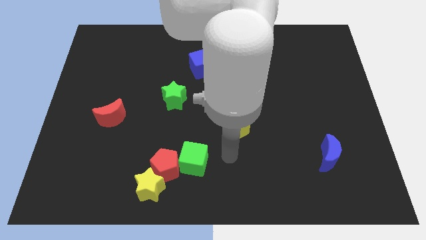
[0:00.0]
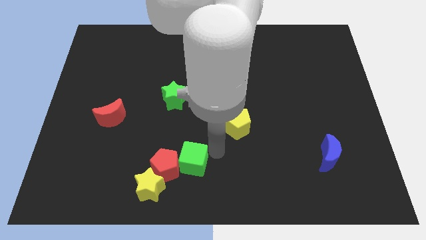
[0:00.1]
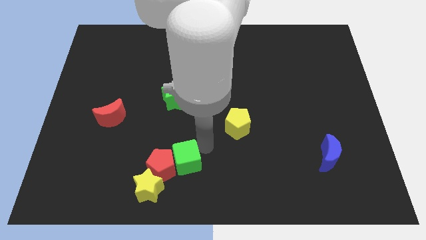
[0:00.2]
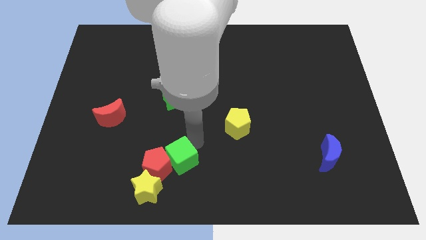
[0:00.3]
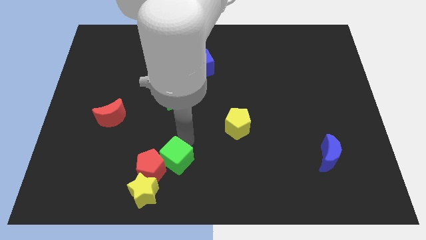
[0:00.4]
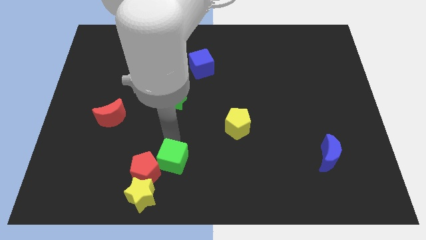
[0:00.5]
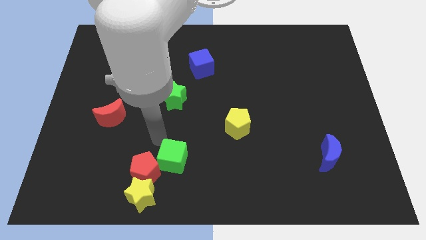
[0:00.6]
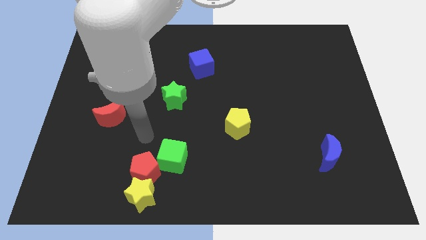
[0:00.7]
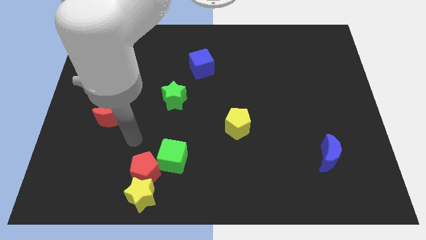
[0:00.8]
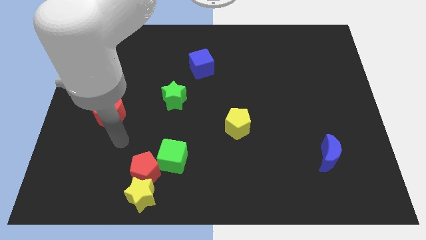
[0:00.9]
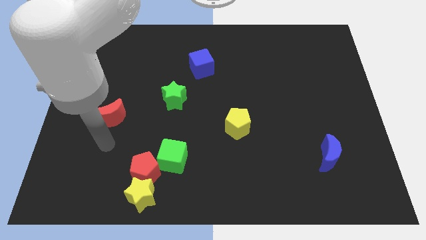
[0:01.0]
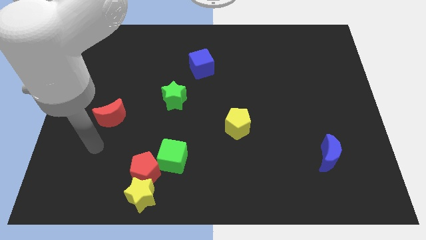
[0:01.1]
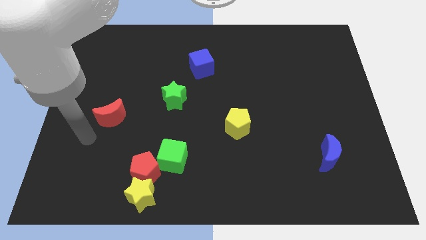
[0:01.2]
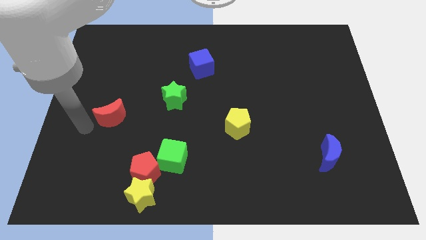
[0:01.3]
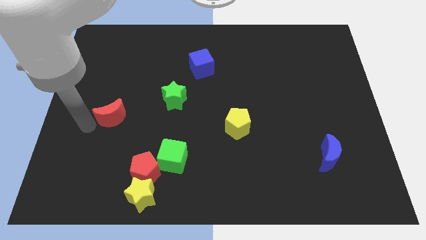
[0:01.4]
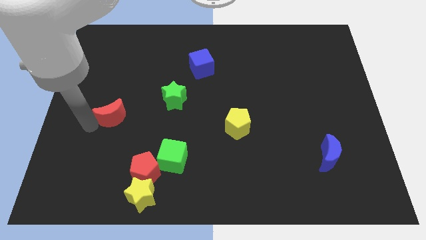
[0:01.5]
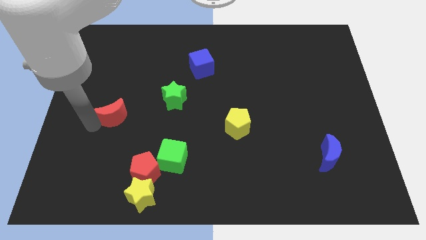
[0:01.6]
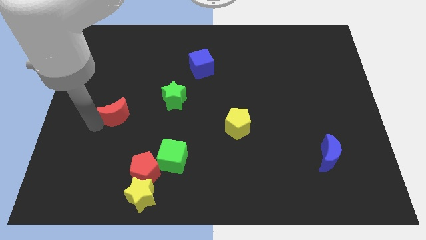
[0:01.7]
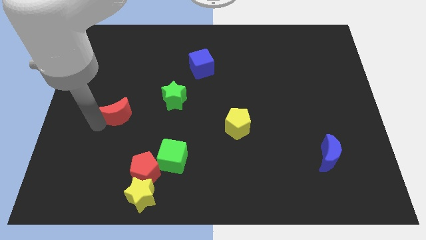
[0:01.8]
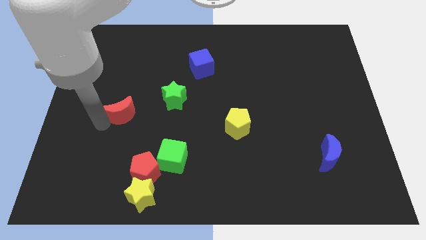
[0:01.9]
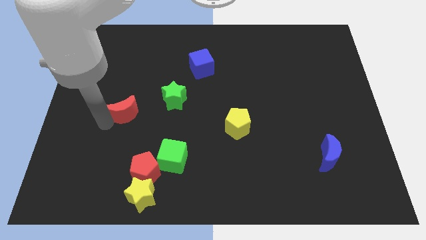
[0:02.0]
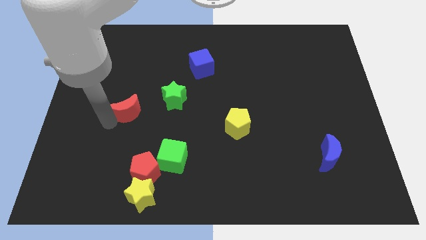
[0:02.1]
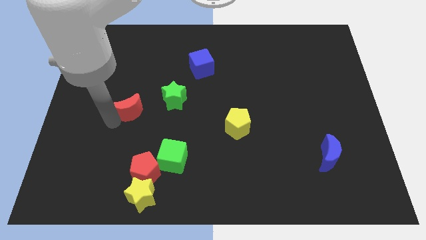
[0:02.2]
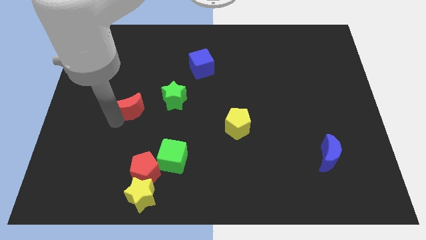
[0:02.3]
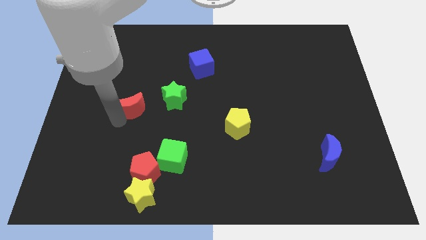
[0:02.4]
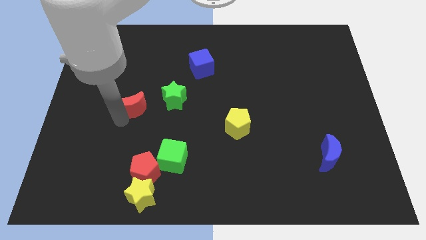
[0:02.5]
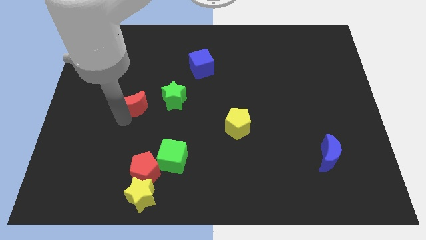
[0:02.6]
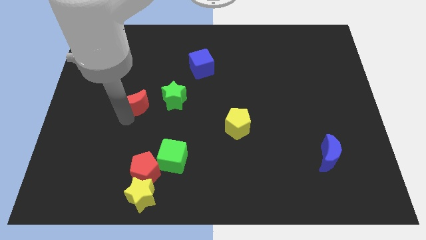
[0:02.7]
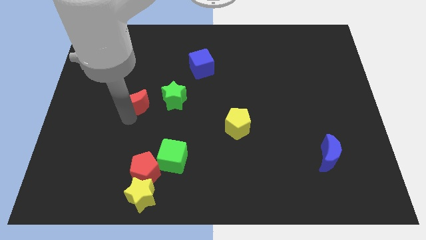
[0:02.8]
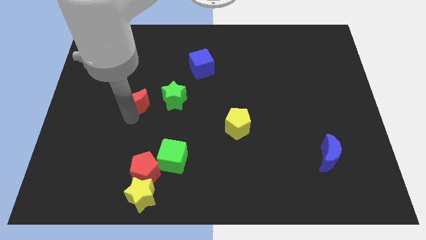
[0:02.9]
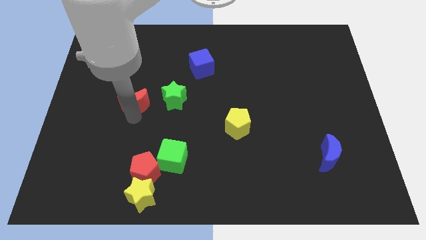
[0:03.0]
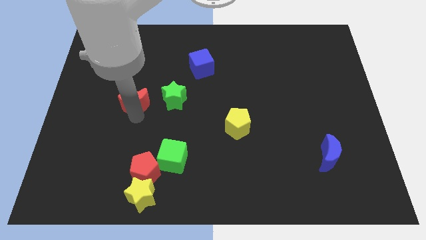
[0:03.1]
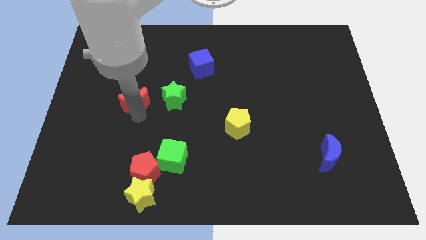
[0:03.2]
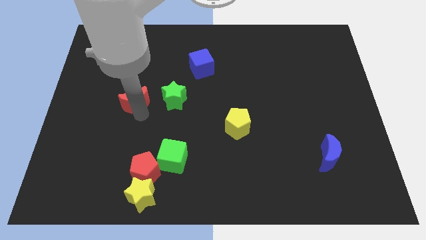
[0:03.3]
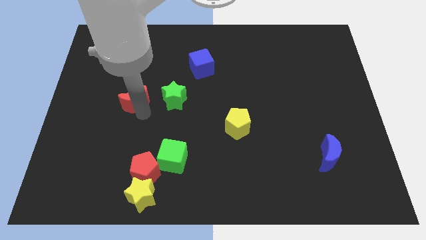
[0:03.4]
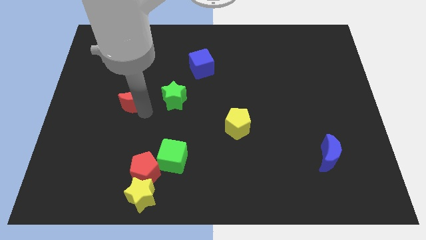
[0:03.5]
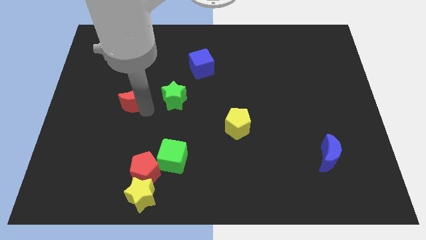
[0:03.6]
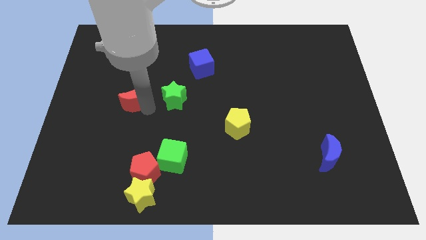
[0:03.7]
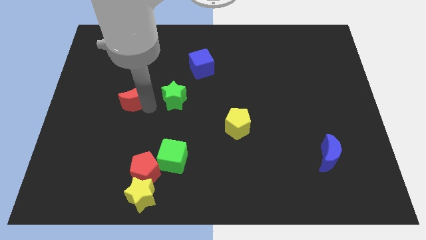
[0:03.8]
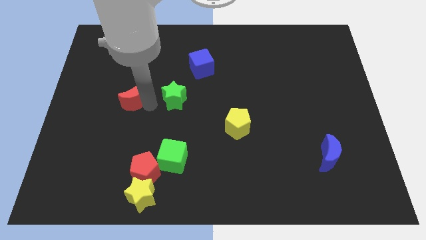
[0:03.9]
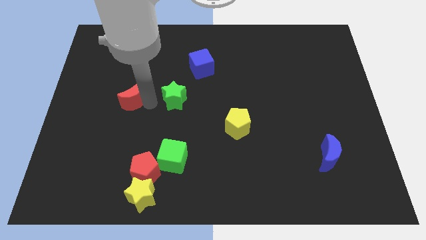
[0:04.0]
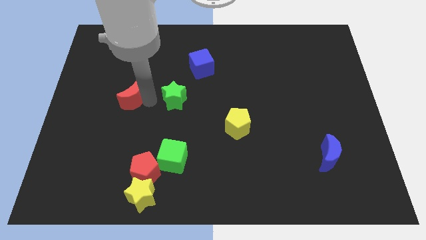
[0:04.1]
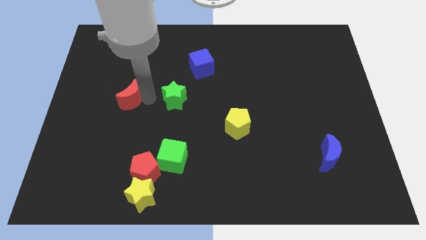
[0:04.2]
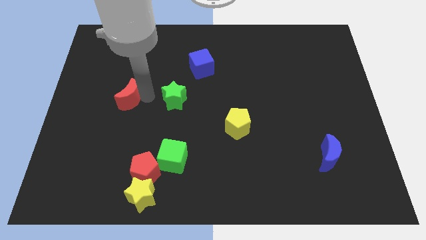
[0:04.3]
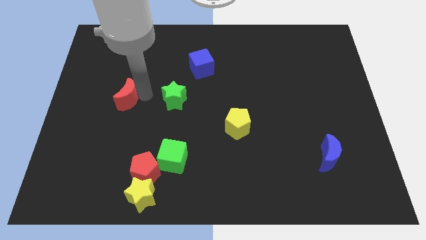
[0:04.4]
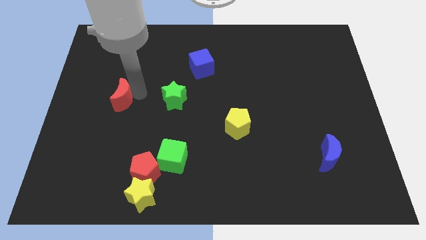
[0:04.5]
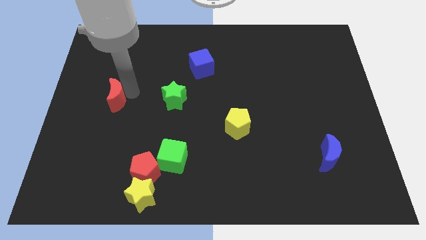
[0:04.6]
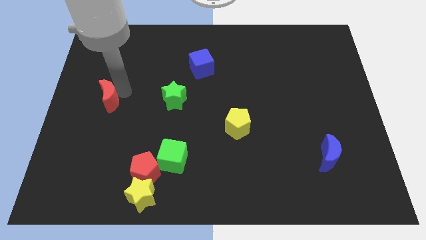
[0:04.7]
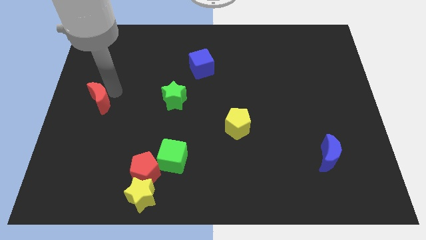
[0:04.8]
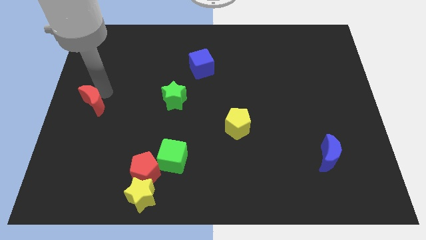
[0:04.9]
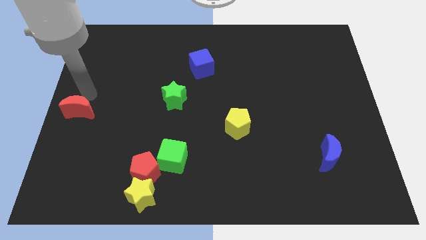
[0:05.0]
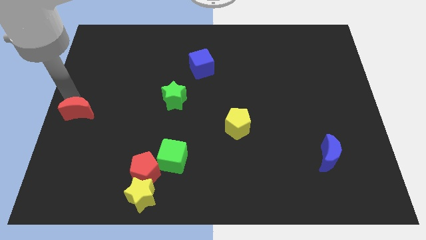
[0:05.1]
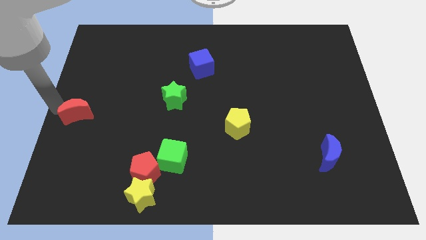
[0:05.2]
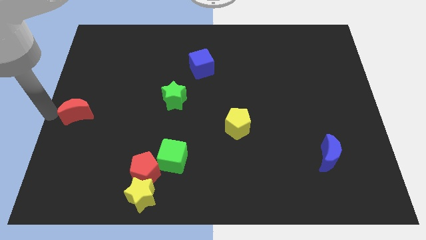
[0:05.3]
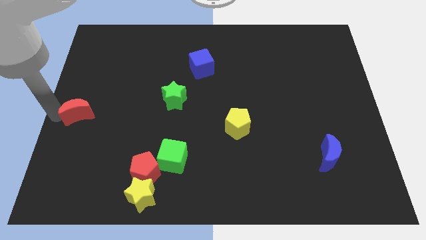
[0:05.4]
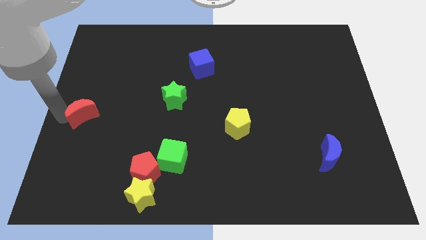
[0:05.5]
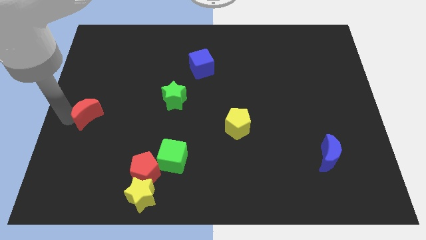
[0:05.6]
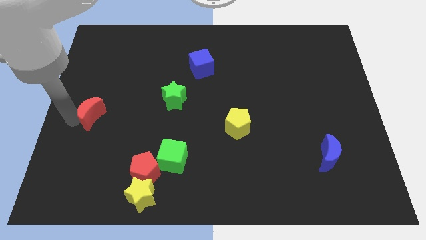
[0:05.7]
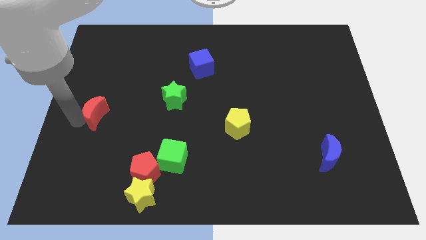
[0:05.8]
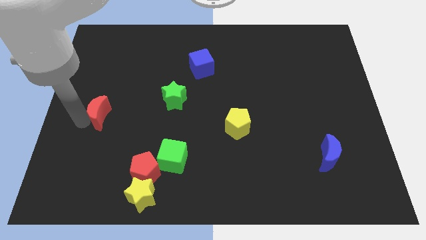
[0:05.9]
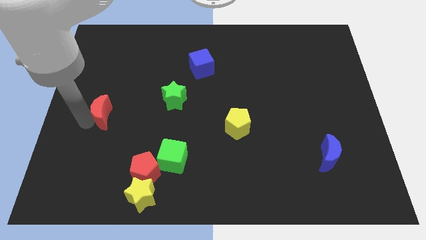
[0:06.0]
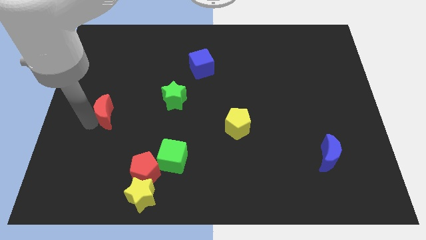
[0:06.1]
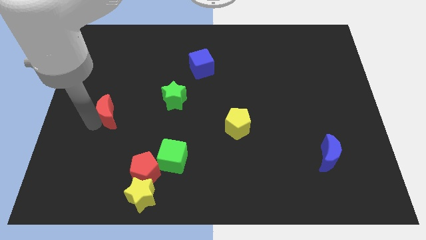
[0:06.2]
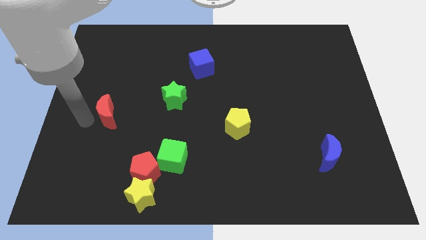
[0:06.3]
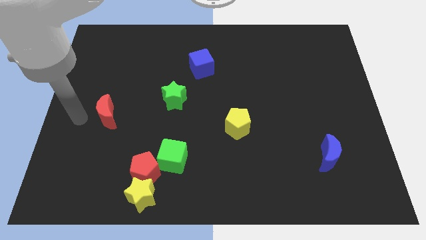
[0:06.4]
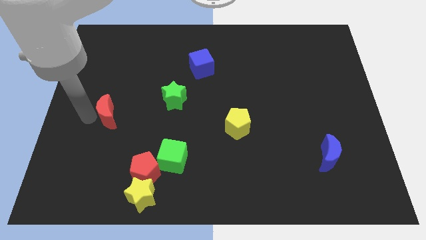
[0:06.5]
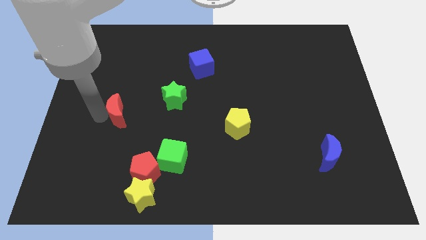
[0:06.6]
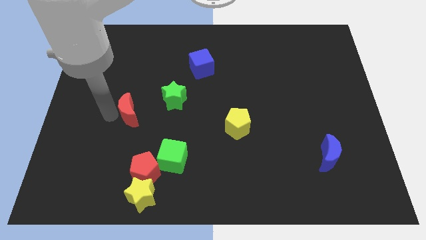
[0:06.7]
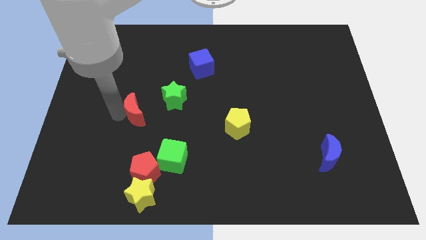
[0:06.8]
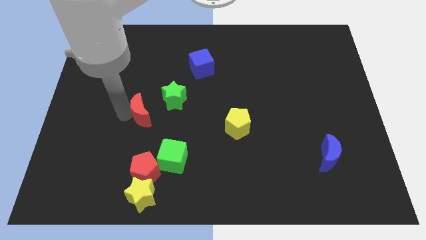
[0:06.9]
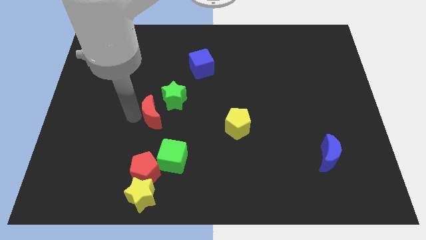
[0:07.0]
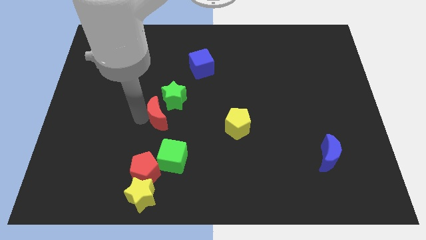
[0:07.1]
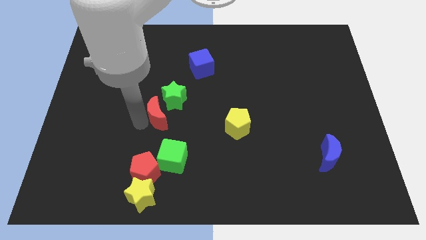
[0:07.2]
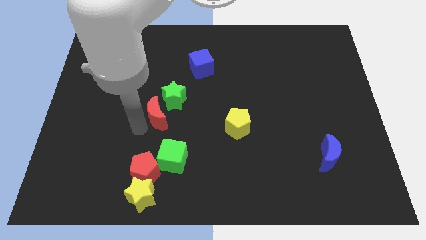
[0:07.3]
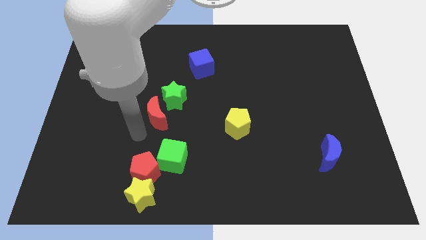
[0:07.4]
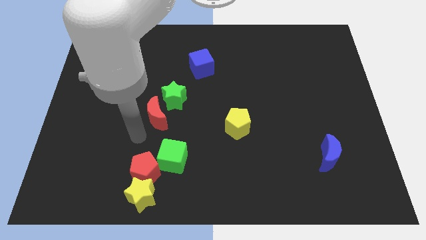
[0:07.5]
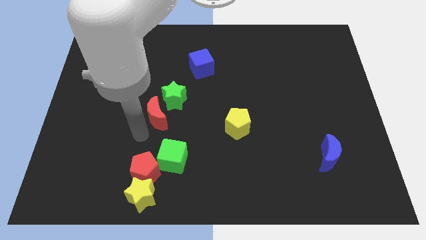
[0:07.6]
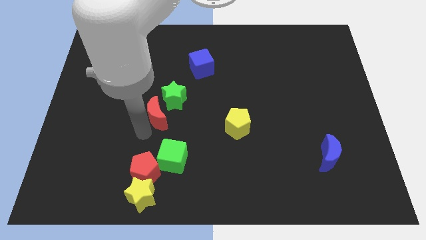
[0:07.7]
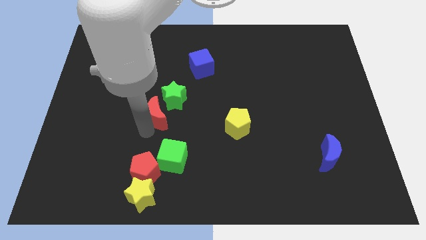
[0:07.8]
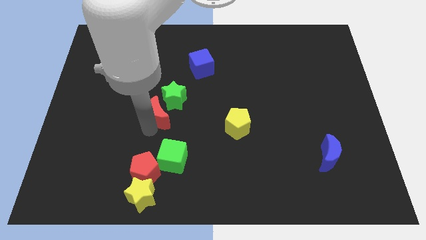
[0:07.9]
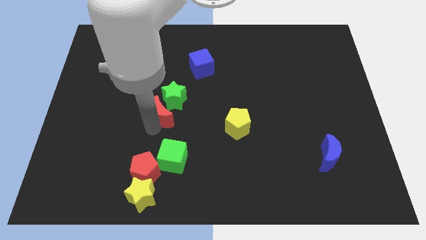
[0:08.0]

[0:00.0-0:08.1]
slide the red moon next to the green star
